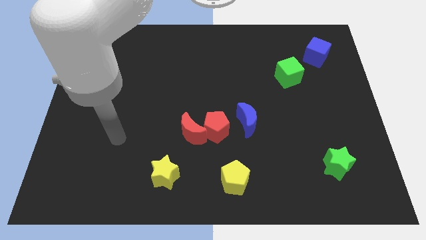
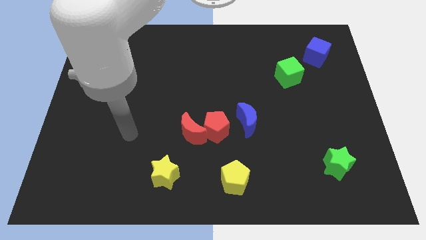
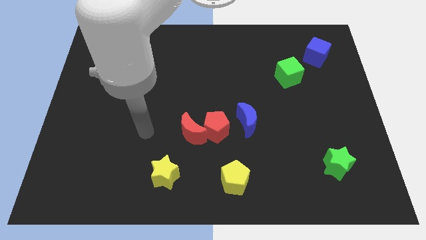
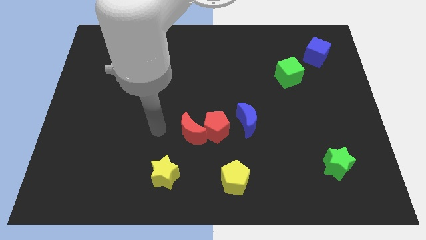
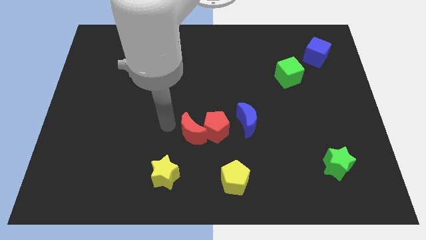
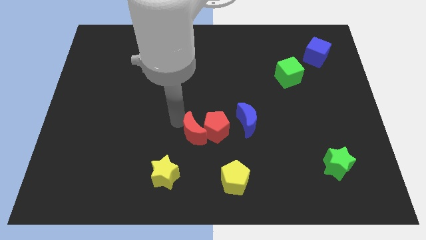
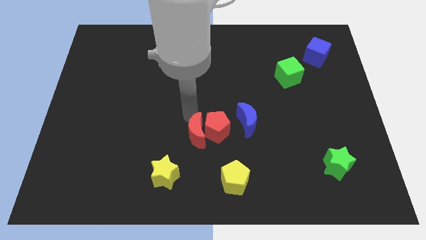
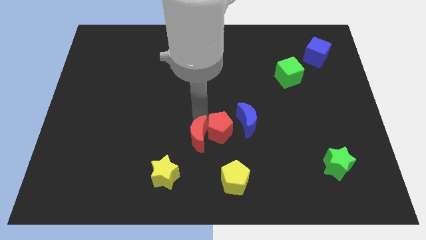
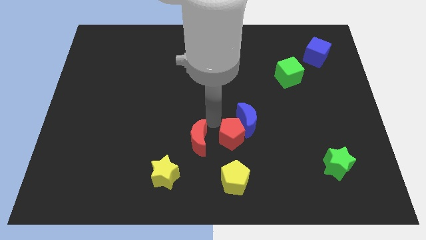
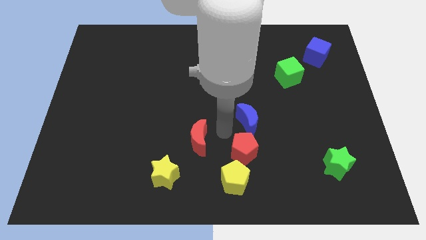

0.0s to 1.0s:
pull the red moon apart from the red pentagon

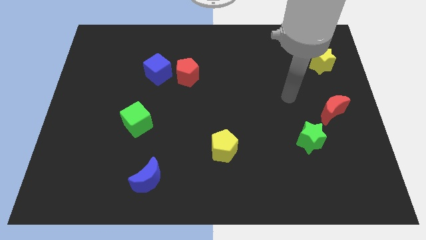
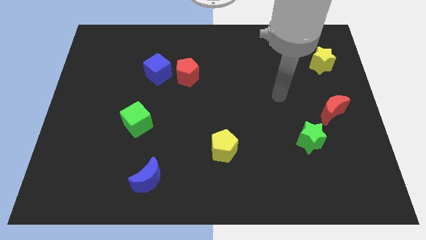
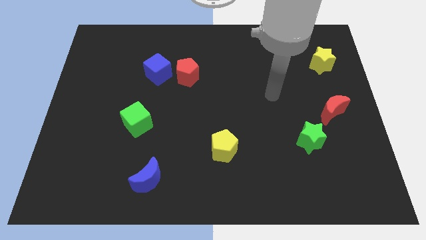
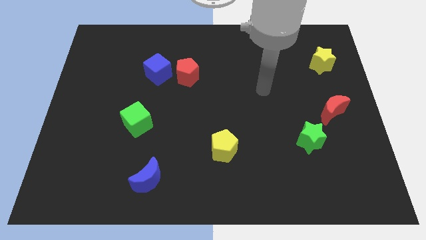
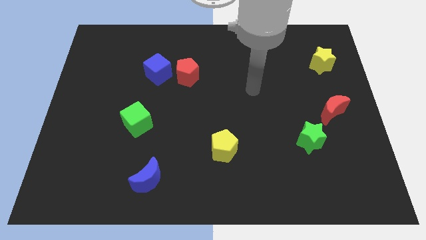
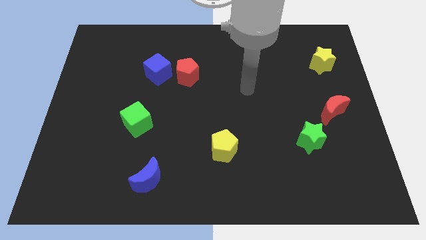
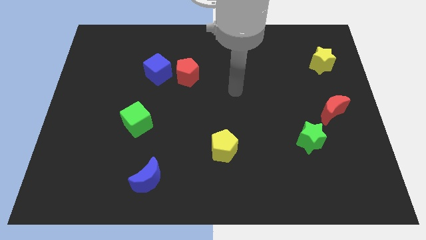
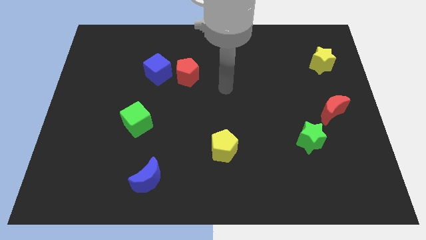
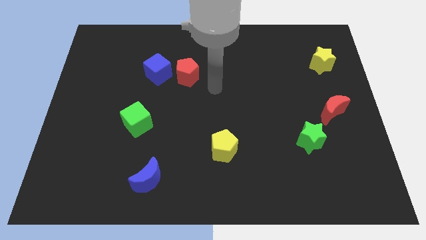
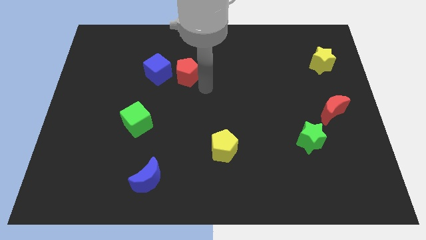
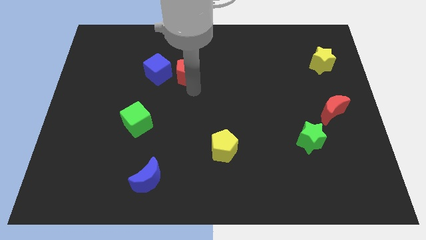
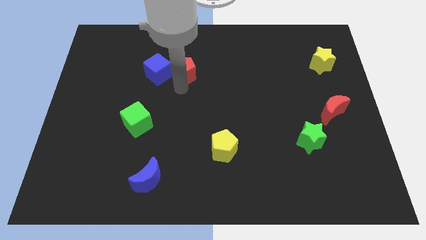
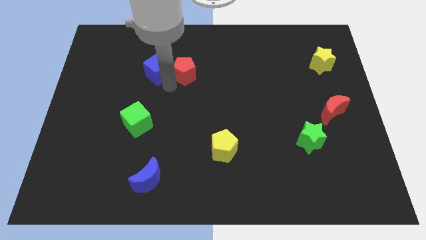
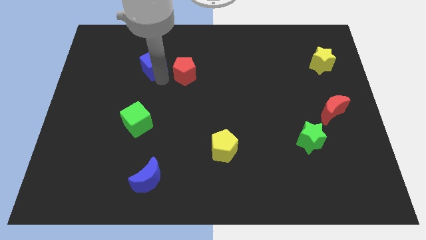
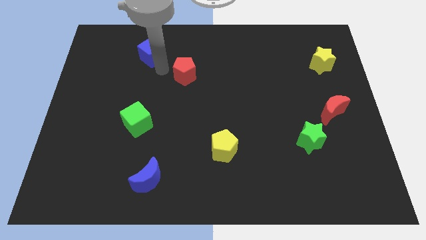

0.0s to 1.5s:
separate the red pentagon from the blue cube

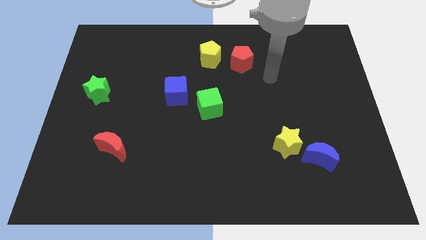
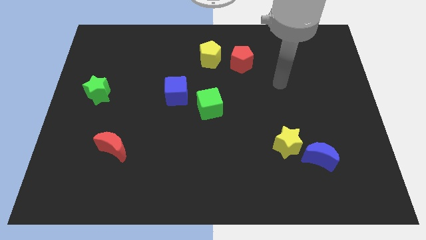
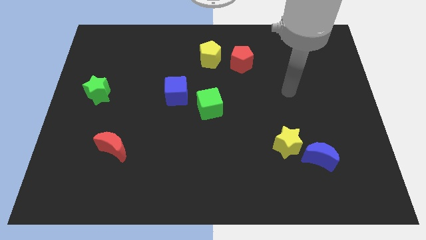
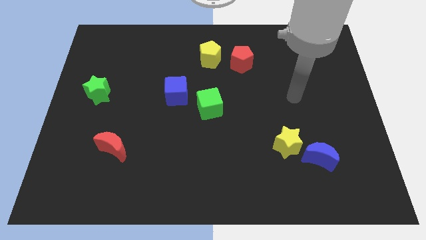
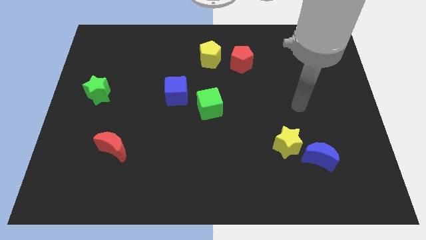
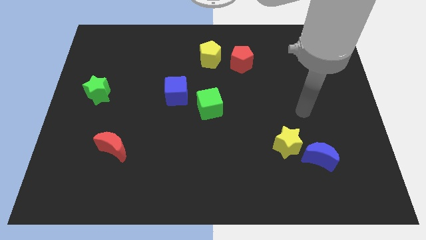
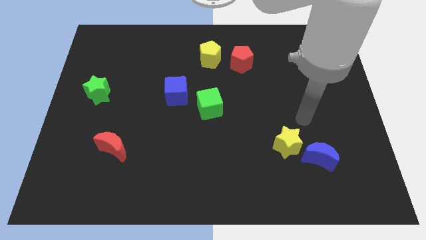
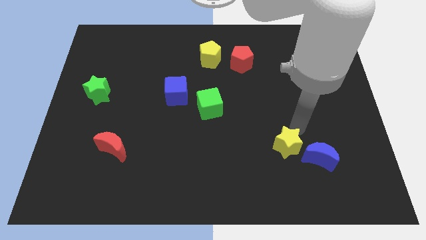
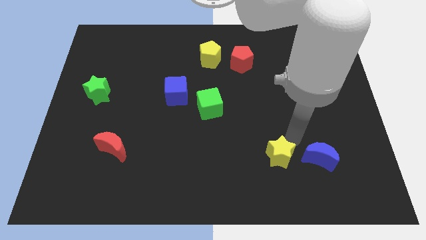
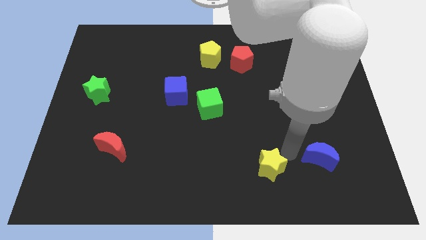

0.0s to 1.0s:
move the blue moon away from the yellow star

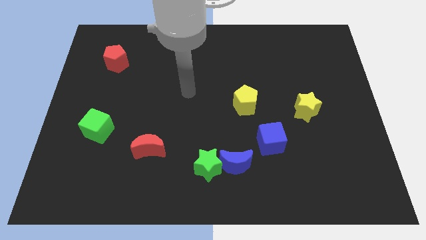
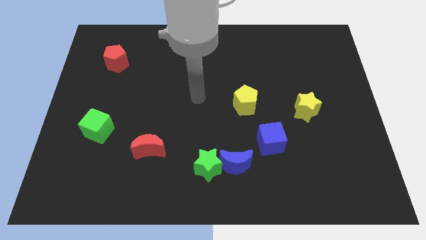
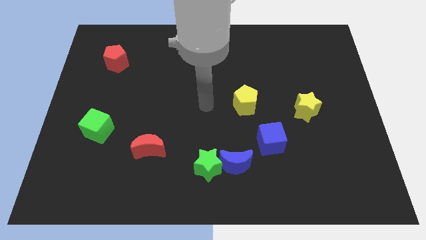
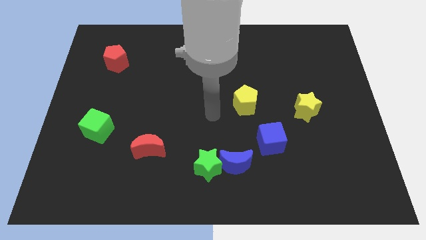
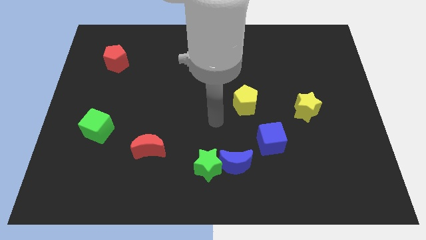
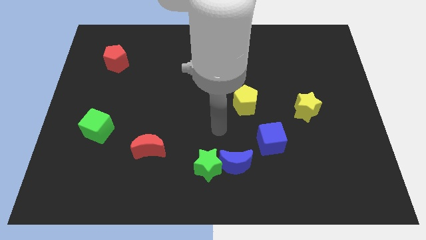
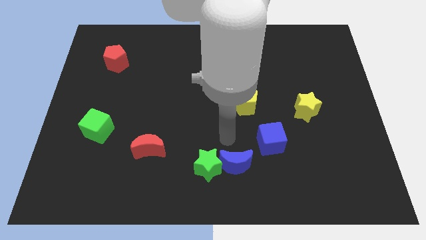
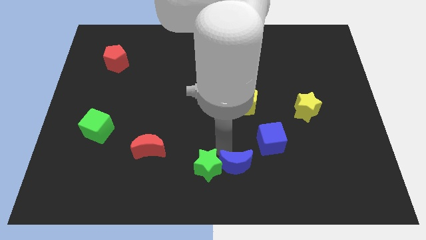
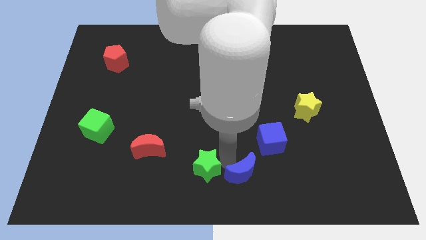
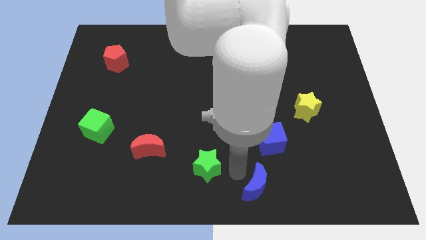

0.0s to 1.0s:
separate the green star from the blue moon

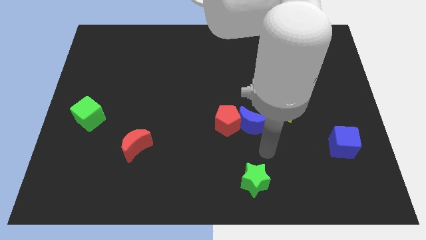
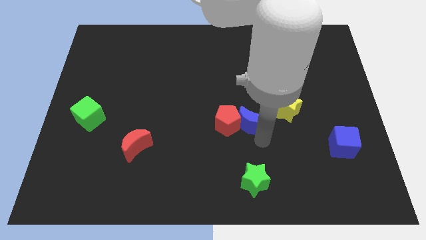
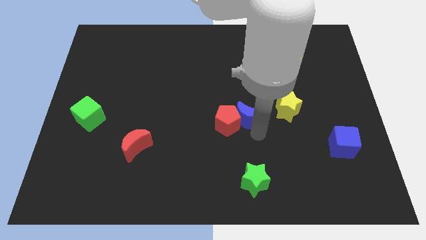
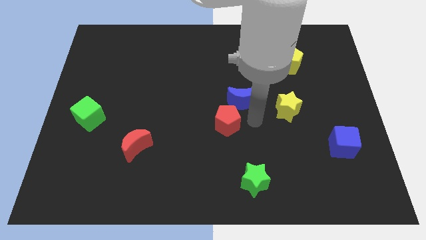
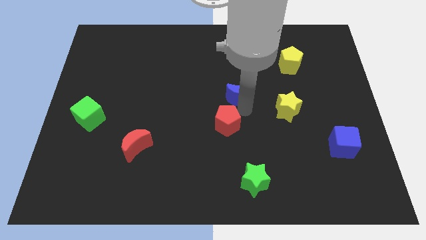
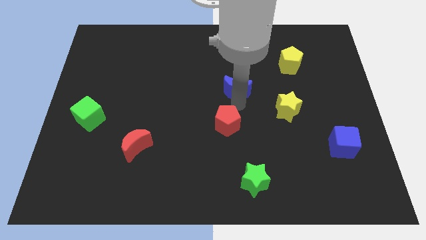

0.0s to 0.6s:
pull the red pentagon apart from the blue moon

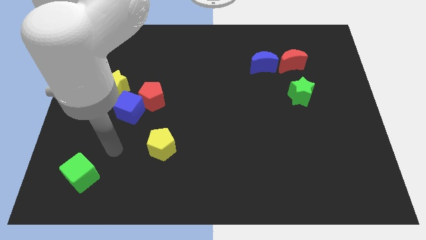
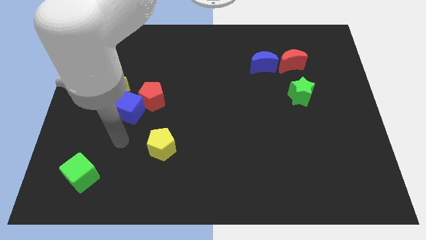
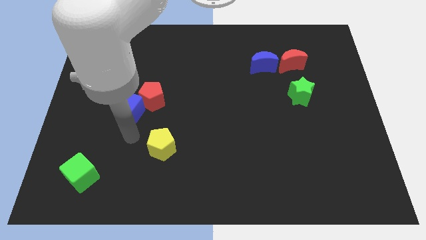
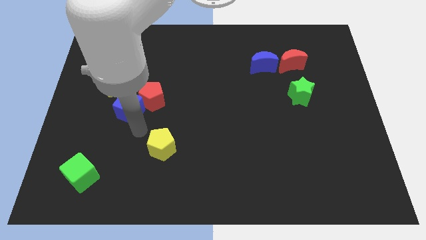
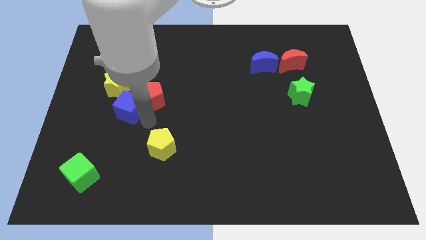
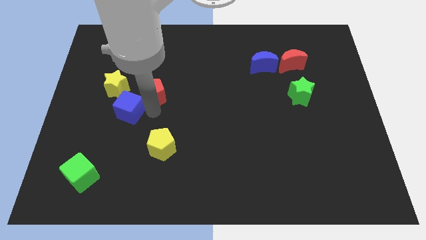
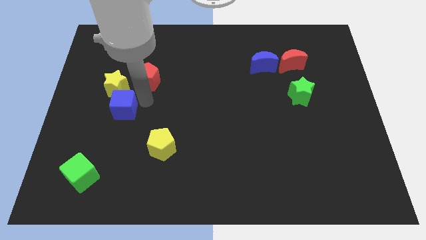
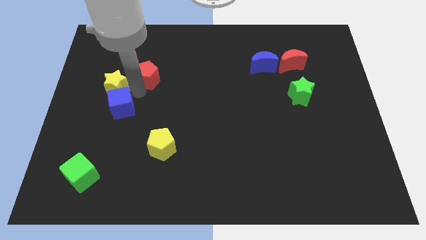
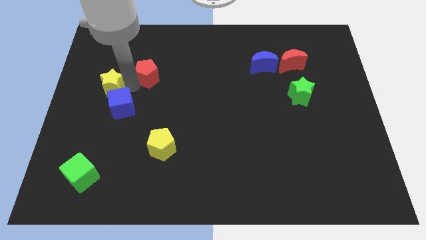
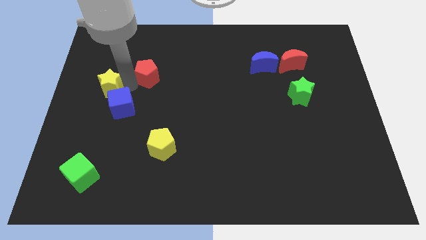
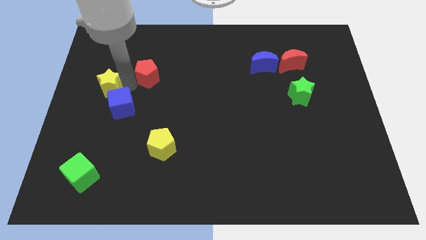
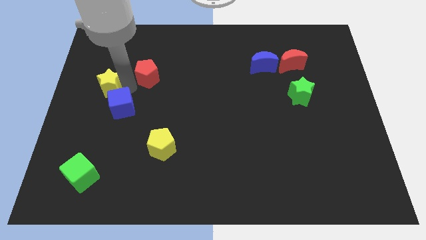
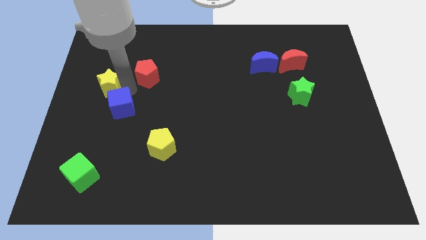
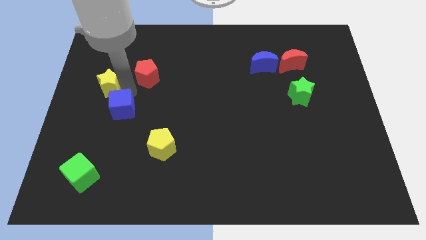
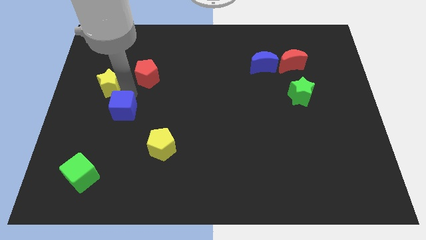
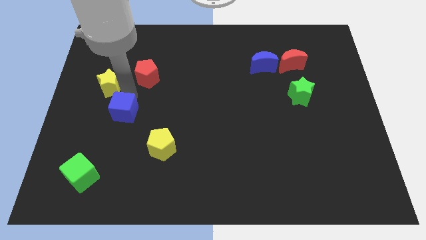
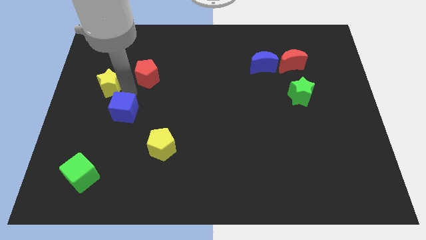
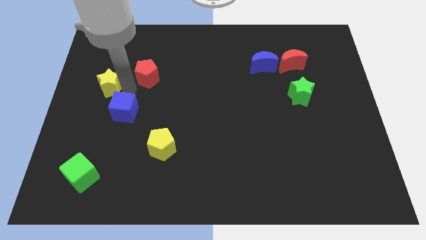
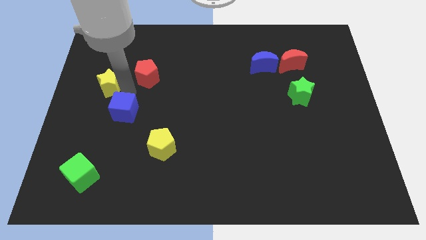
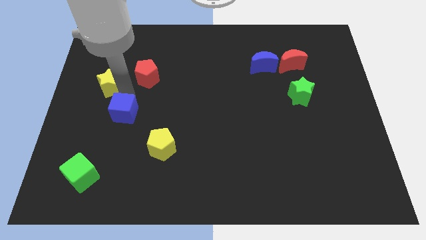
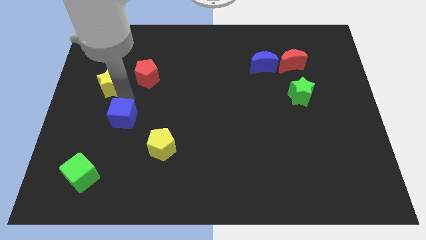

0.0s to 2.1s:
pull the blue cube apart from the red pentagon and yellow star

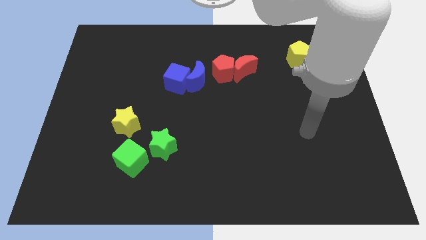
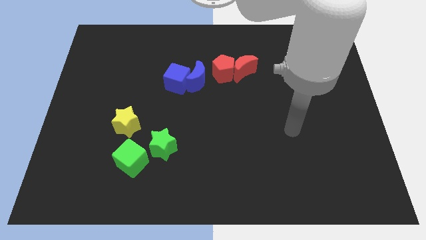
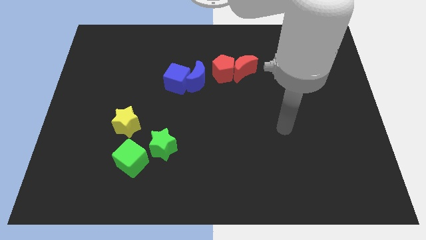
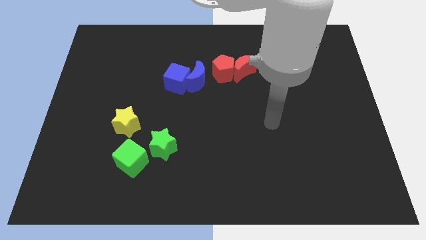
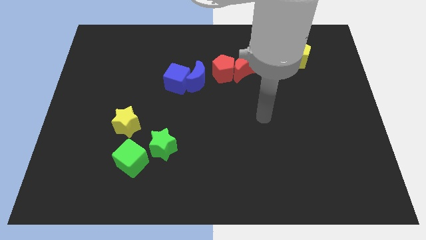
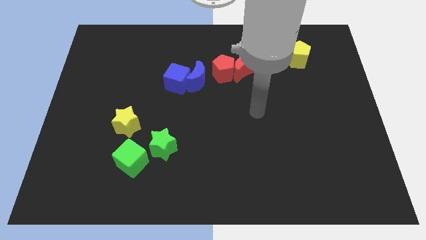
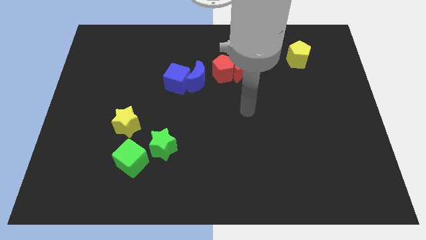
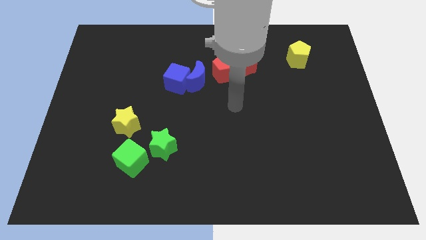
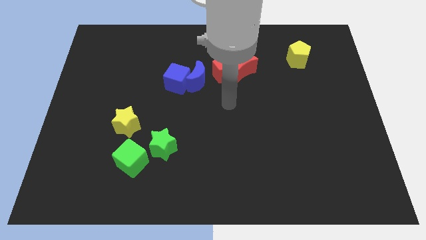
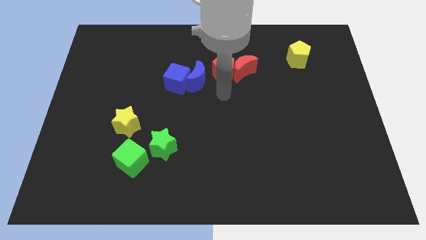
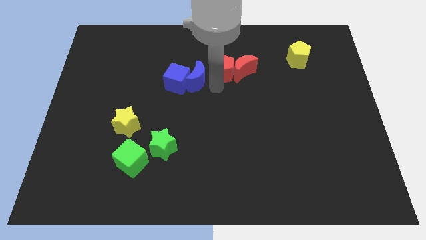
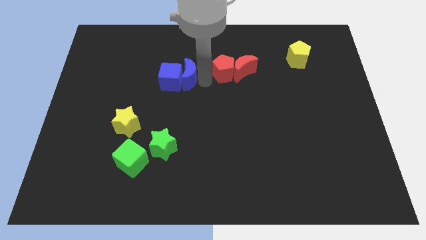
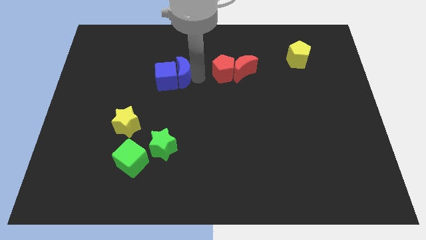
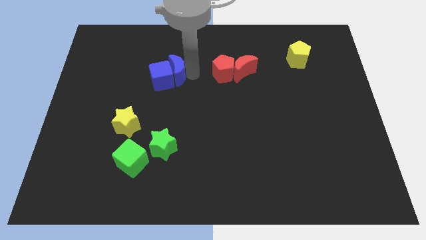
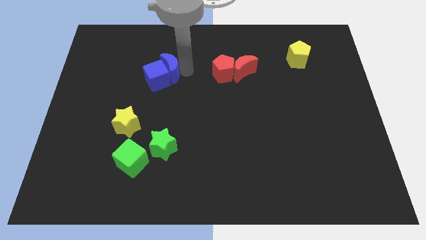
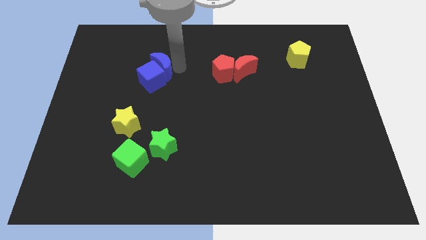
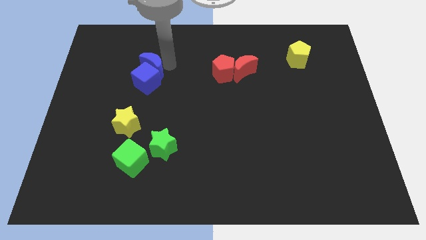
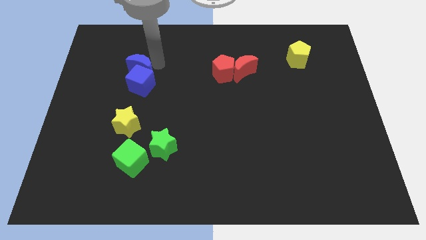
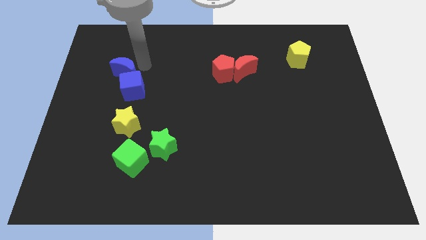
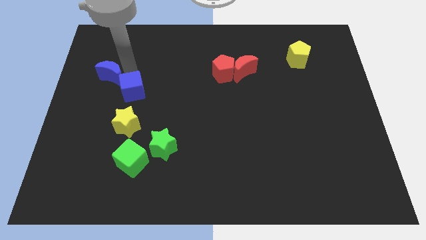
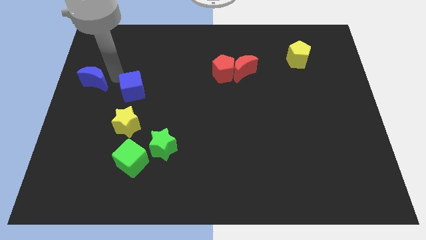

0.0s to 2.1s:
move the blue cube away from the blue moon
